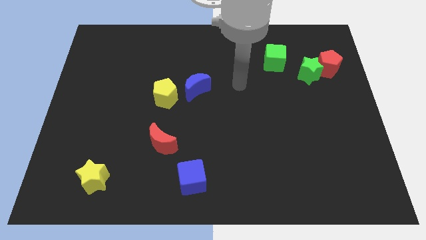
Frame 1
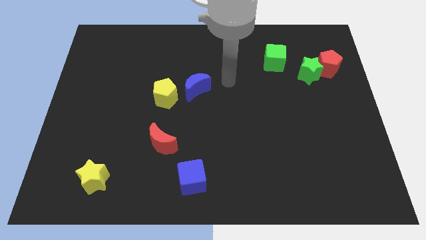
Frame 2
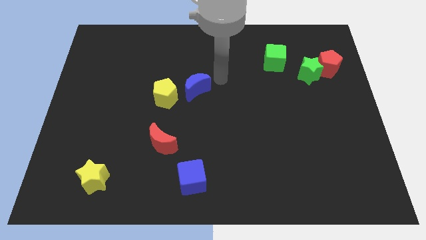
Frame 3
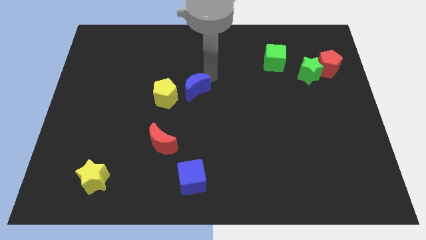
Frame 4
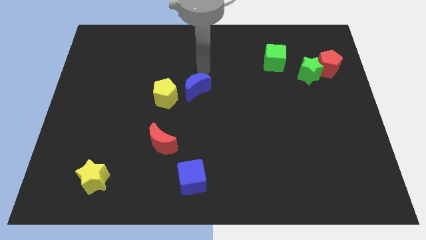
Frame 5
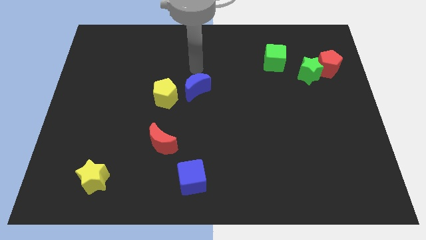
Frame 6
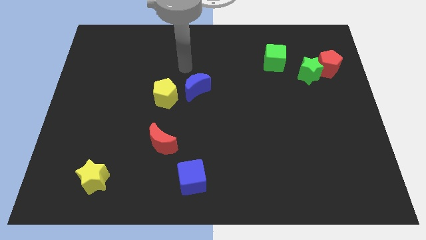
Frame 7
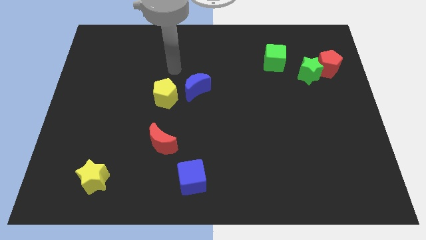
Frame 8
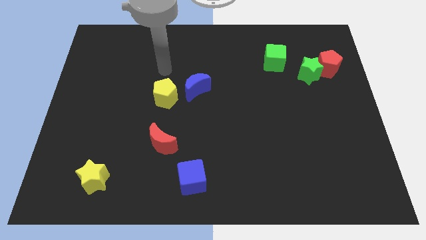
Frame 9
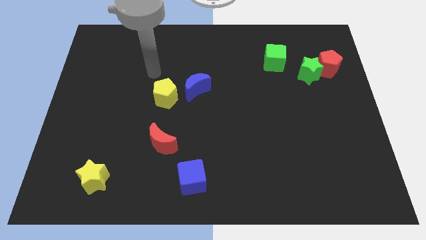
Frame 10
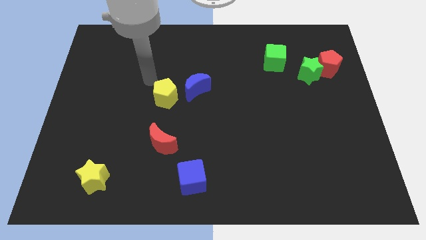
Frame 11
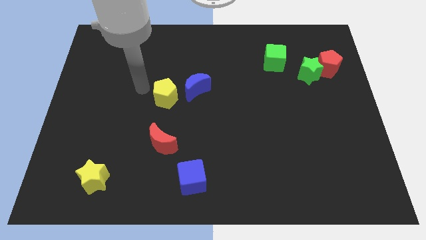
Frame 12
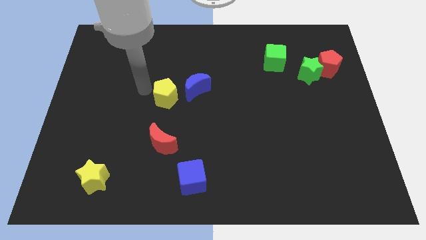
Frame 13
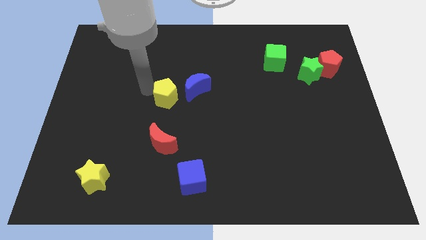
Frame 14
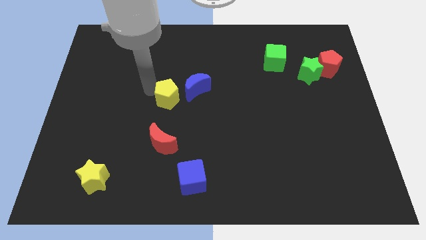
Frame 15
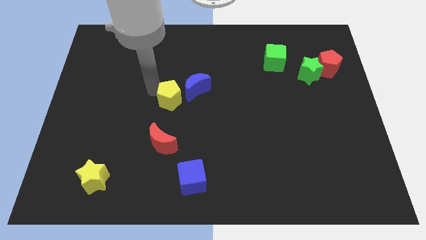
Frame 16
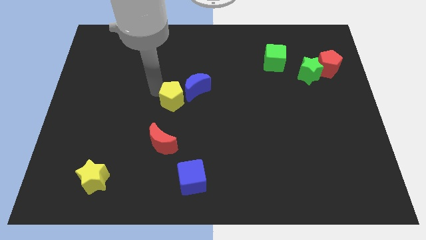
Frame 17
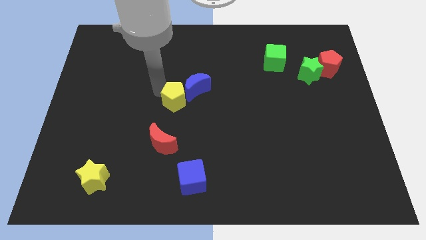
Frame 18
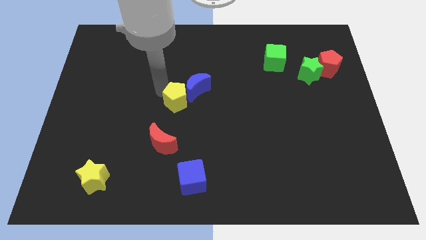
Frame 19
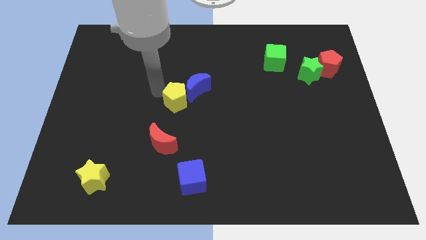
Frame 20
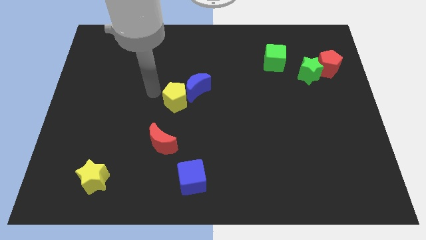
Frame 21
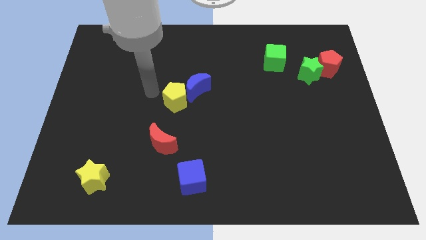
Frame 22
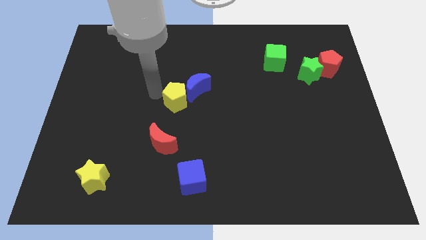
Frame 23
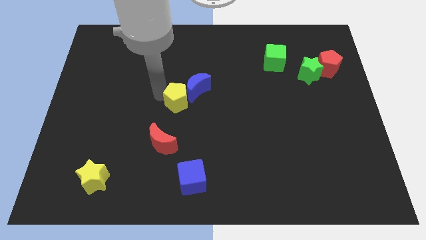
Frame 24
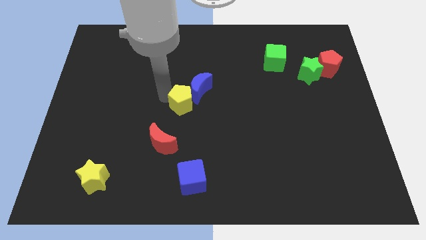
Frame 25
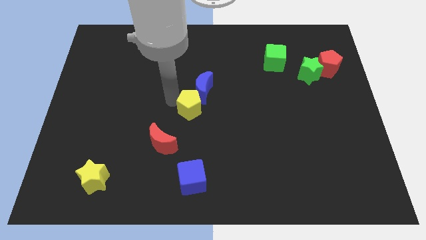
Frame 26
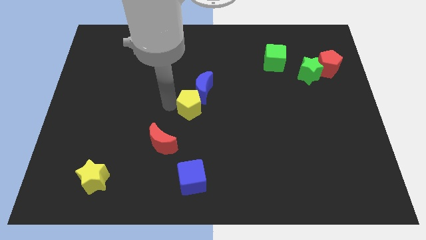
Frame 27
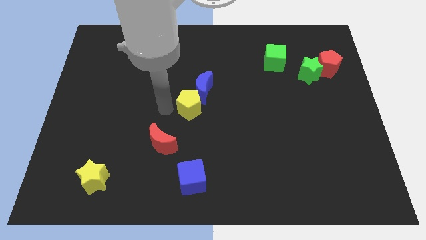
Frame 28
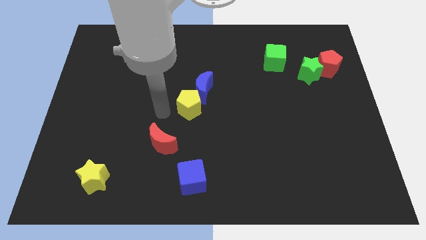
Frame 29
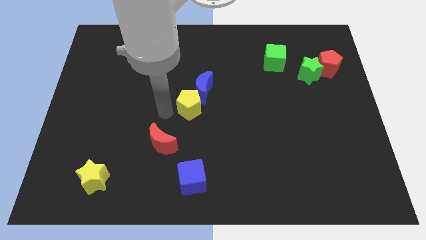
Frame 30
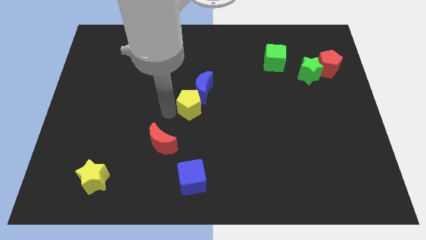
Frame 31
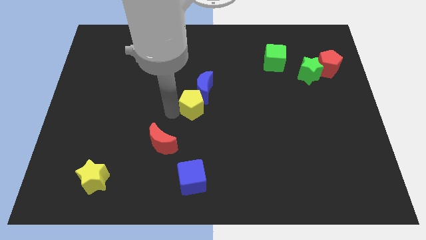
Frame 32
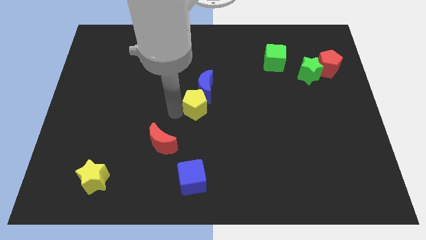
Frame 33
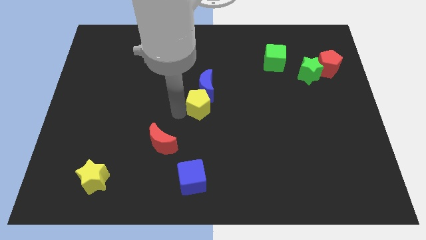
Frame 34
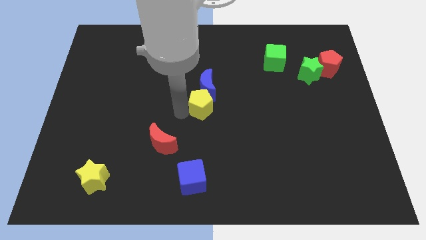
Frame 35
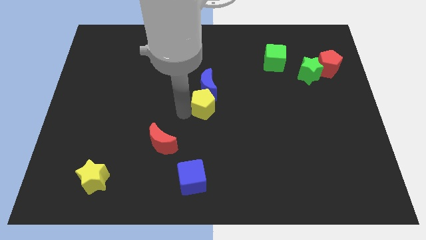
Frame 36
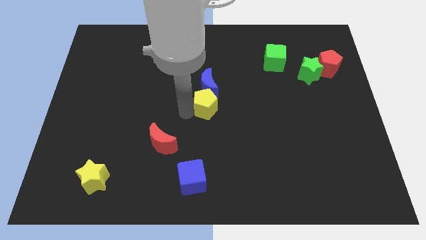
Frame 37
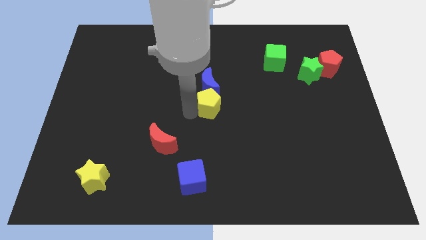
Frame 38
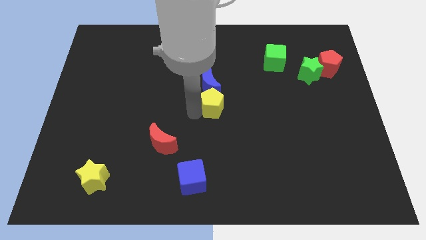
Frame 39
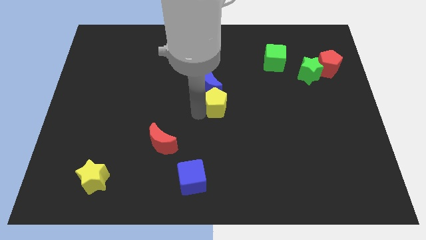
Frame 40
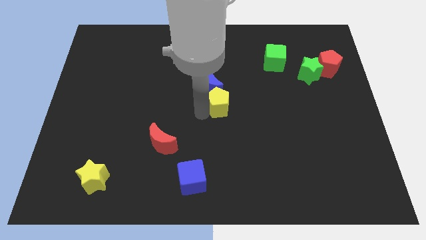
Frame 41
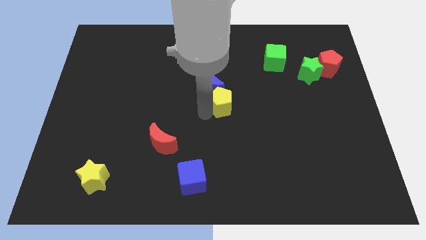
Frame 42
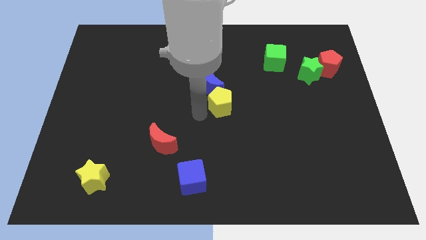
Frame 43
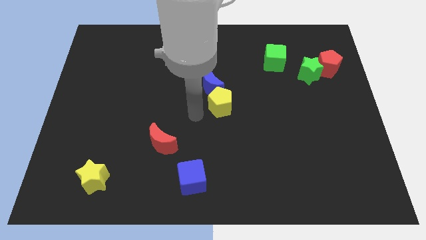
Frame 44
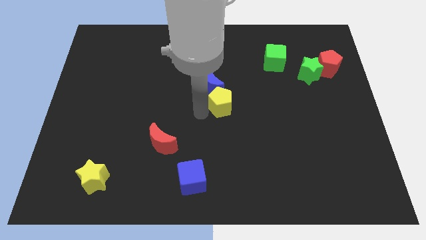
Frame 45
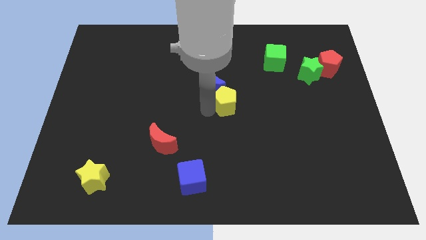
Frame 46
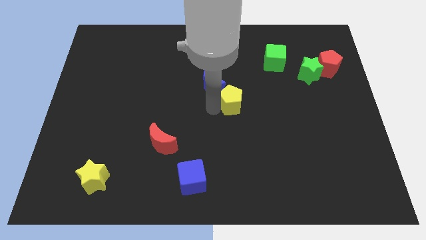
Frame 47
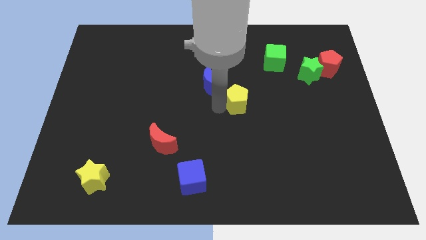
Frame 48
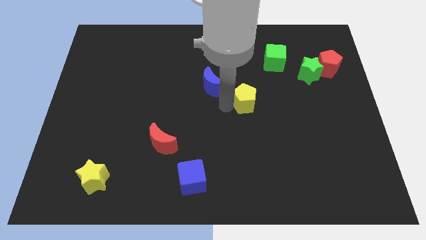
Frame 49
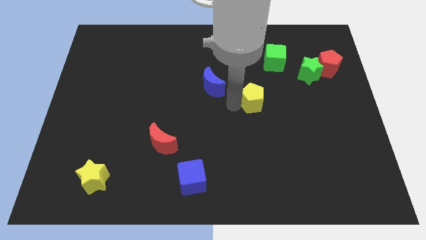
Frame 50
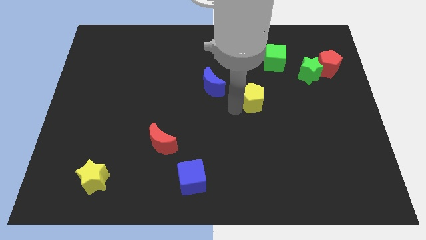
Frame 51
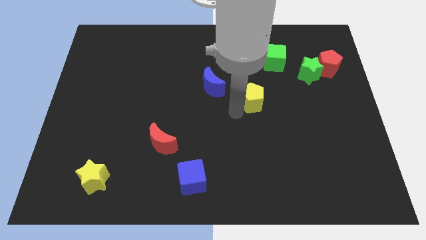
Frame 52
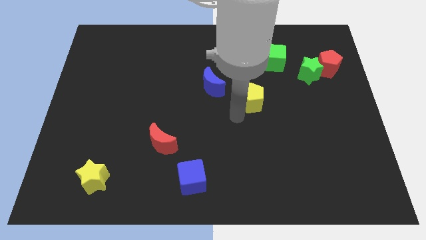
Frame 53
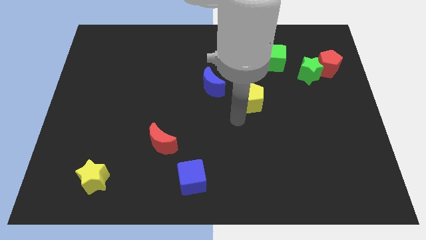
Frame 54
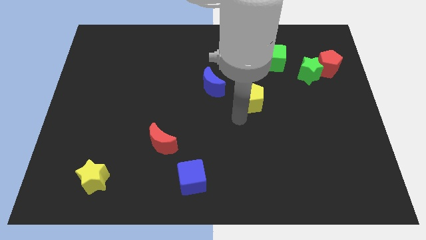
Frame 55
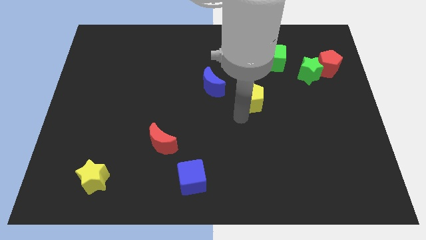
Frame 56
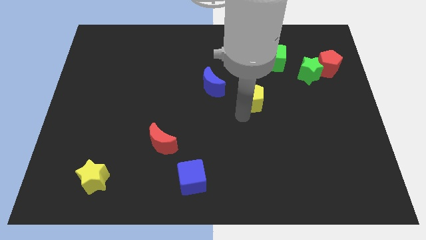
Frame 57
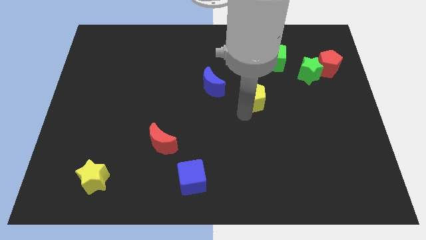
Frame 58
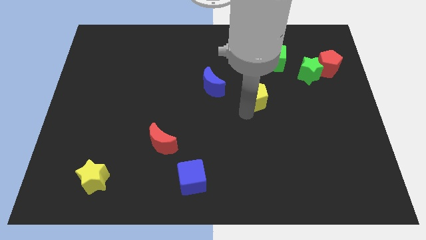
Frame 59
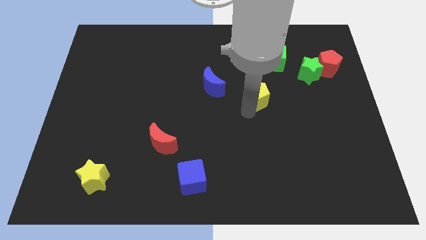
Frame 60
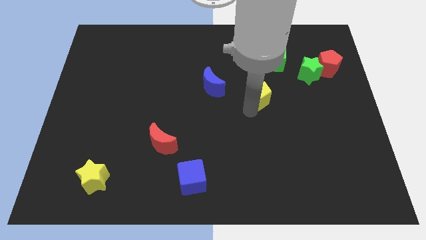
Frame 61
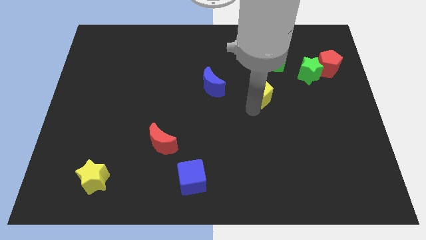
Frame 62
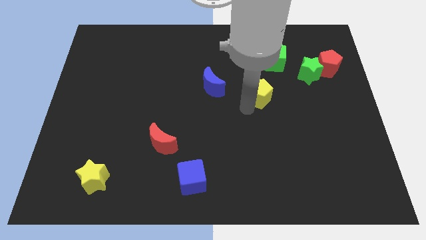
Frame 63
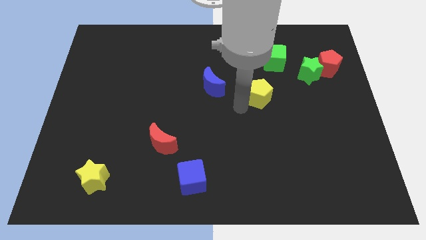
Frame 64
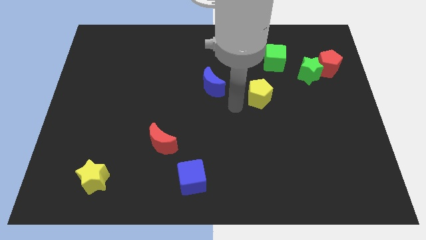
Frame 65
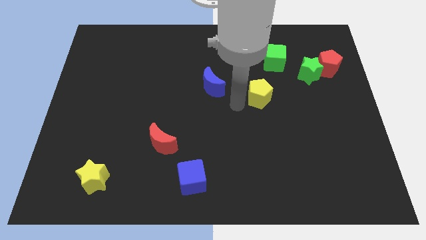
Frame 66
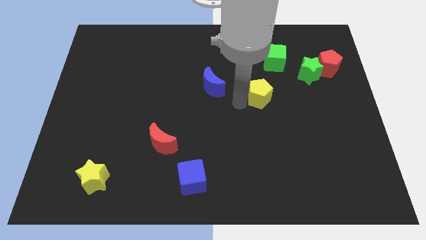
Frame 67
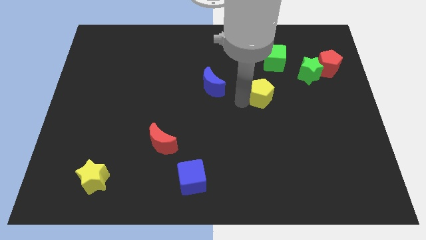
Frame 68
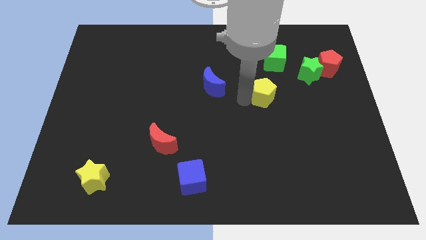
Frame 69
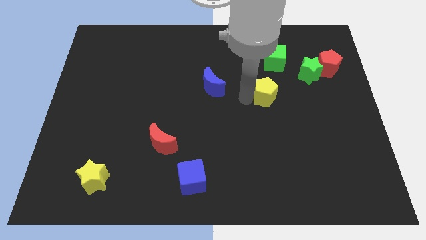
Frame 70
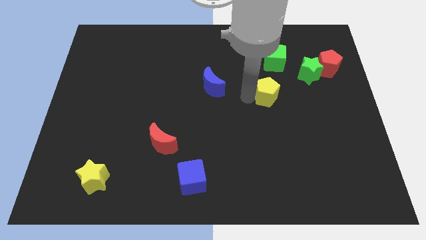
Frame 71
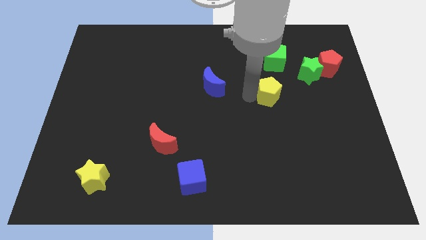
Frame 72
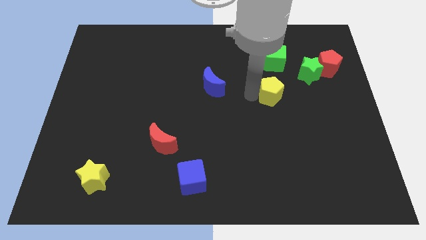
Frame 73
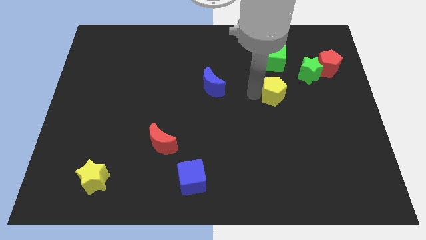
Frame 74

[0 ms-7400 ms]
put the yellow pentagon to the bottom left of the green star
